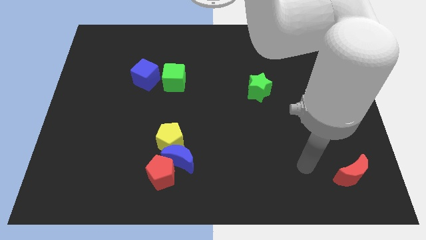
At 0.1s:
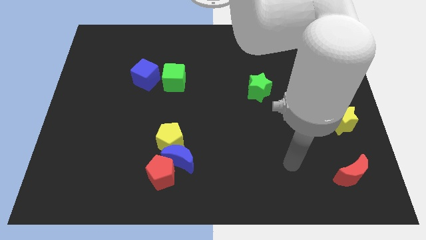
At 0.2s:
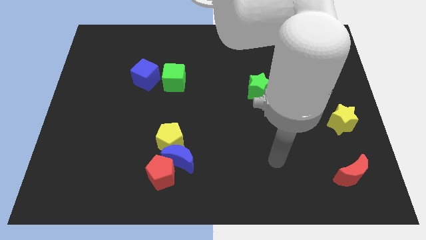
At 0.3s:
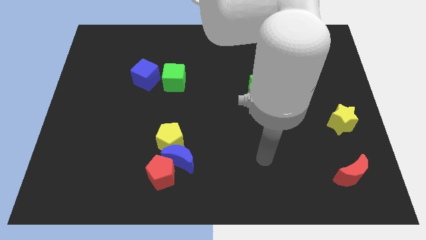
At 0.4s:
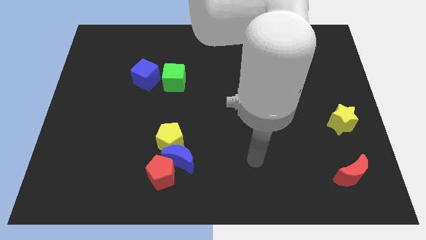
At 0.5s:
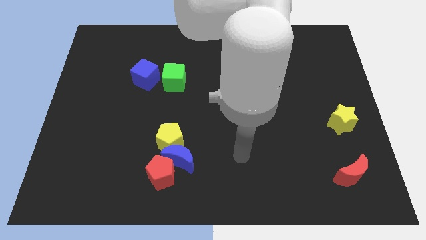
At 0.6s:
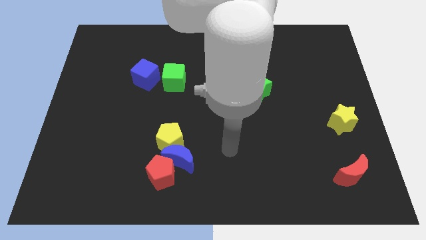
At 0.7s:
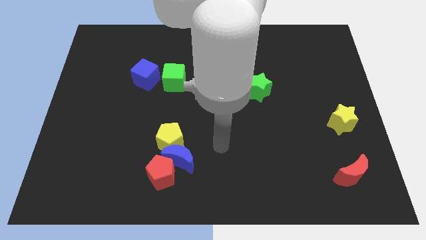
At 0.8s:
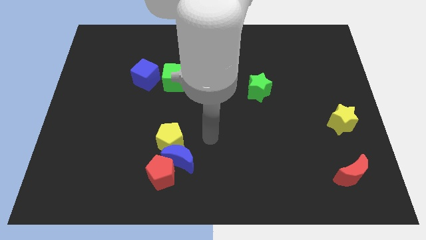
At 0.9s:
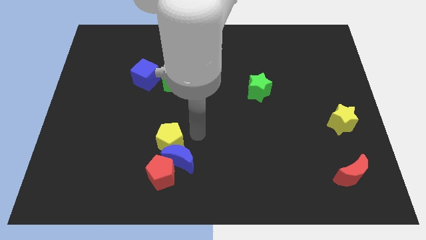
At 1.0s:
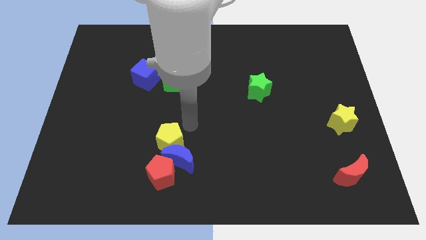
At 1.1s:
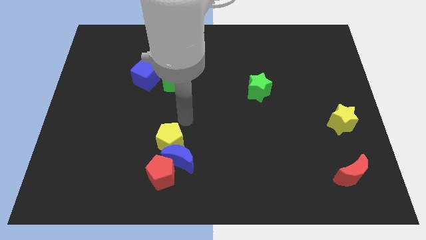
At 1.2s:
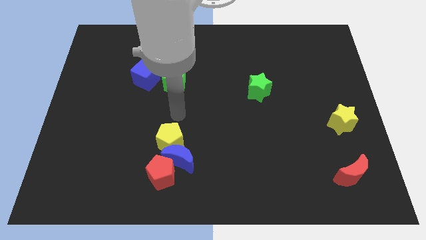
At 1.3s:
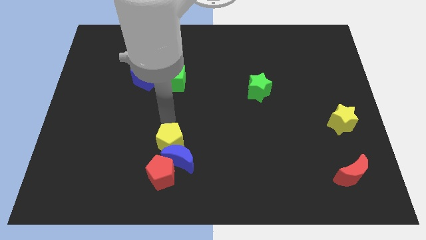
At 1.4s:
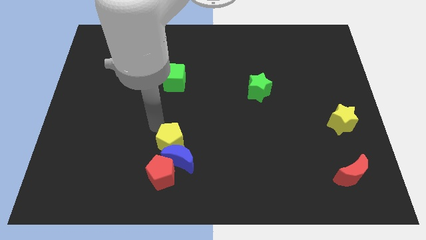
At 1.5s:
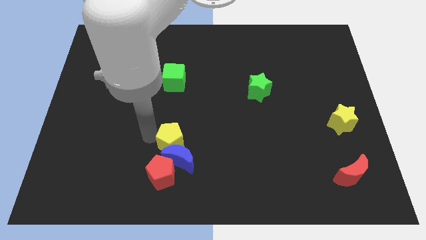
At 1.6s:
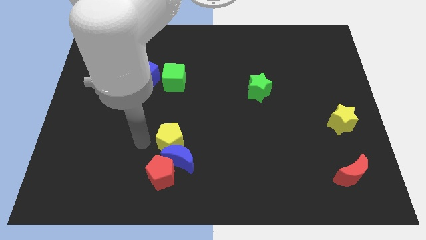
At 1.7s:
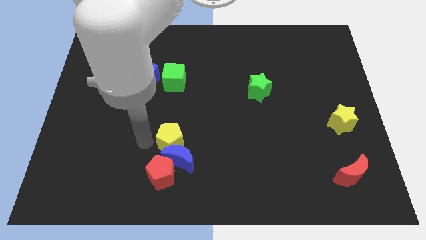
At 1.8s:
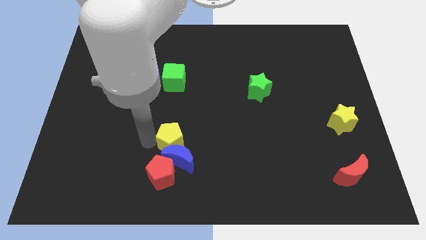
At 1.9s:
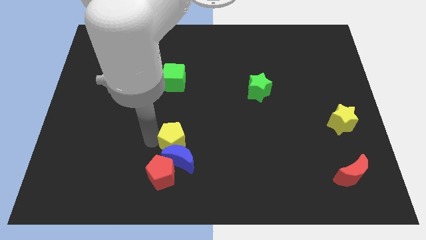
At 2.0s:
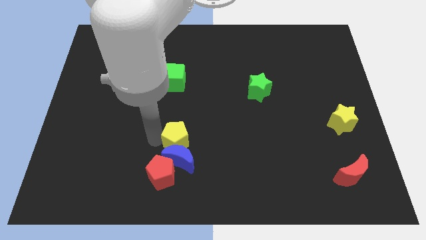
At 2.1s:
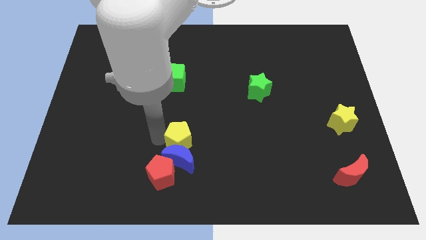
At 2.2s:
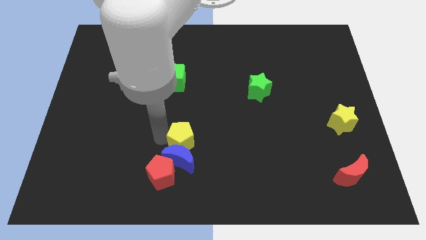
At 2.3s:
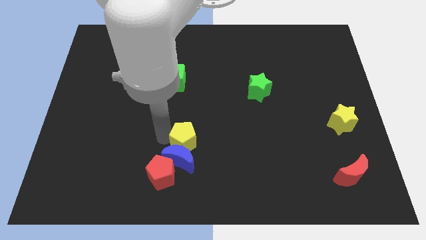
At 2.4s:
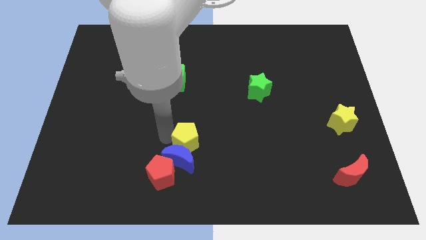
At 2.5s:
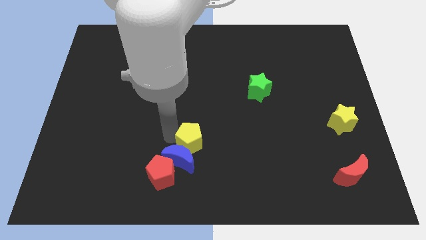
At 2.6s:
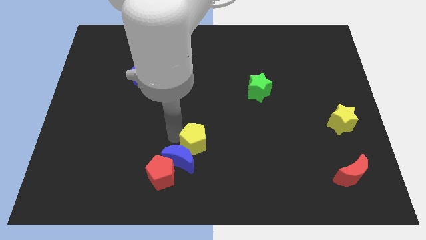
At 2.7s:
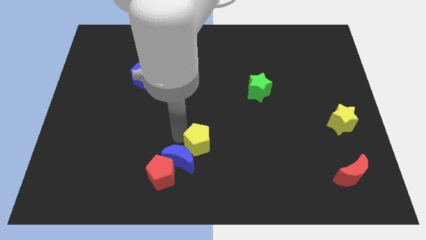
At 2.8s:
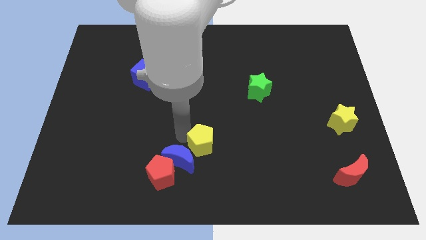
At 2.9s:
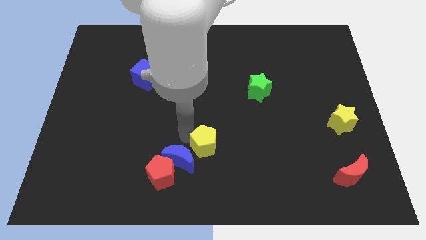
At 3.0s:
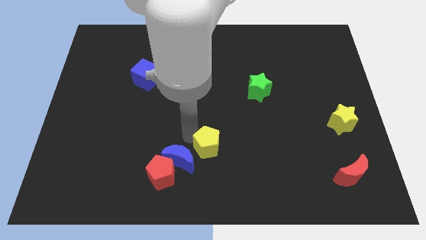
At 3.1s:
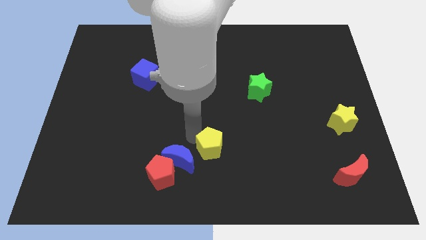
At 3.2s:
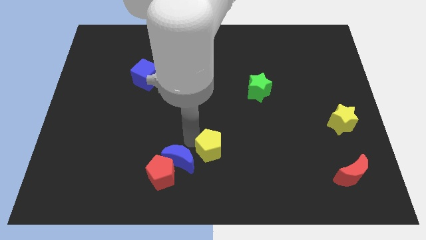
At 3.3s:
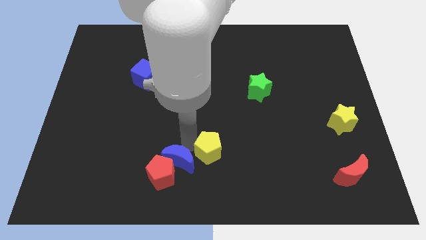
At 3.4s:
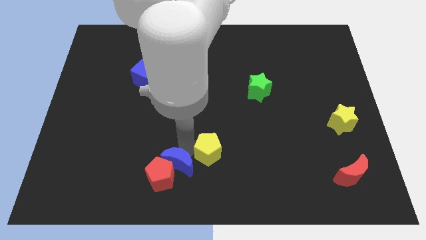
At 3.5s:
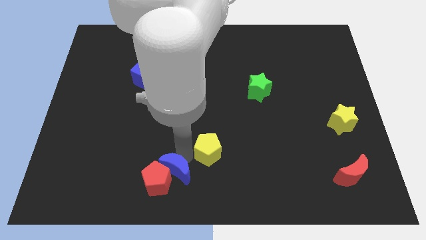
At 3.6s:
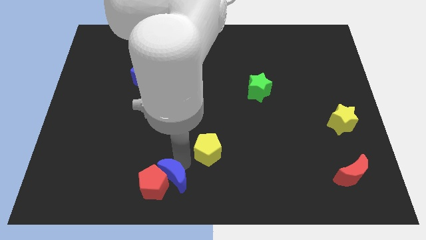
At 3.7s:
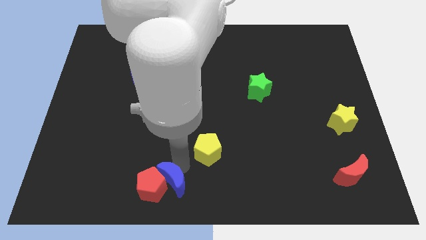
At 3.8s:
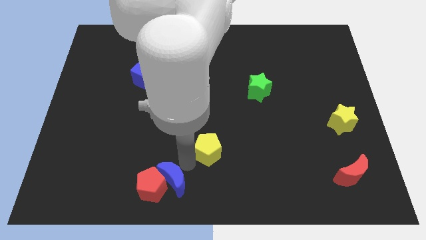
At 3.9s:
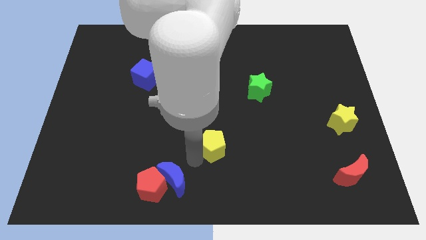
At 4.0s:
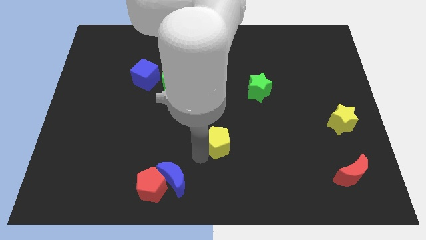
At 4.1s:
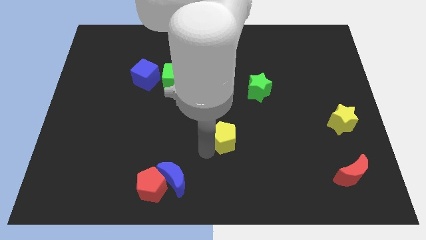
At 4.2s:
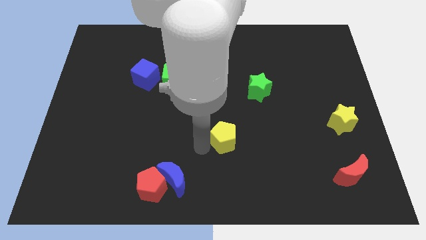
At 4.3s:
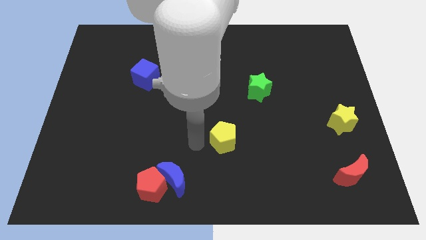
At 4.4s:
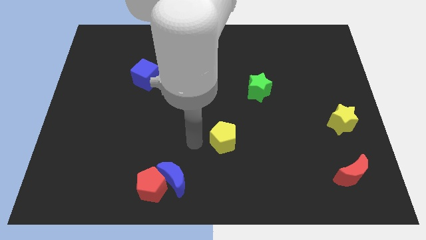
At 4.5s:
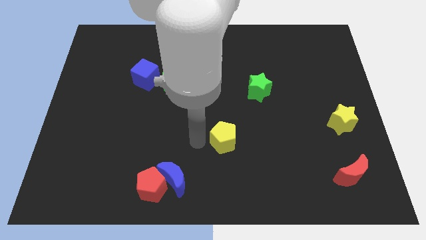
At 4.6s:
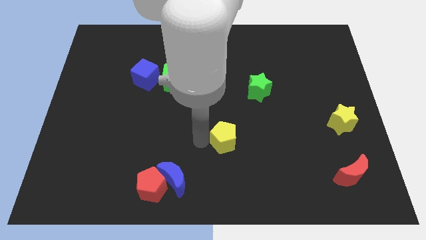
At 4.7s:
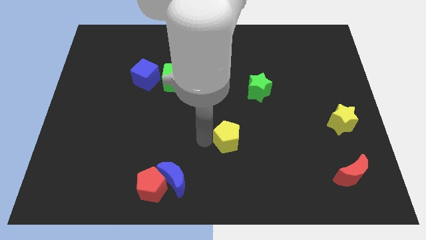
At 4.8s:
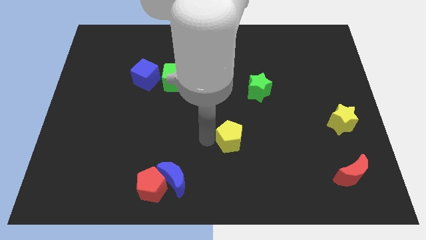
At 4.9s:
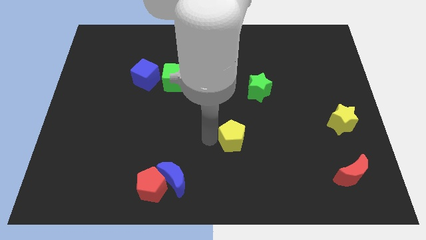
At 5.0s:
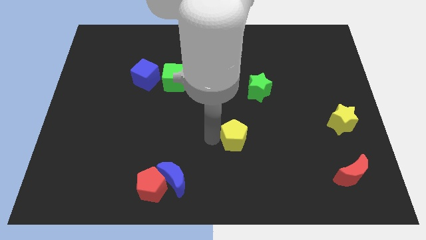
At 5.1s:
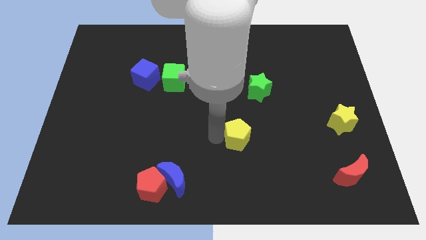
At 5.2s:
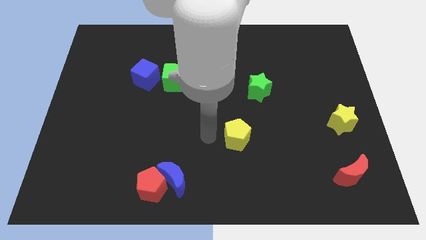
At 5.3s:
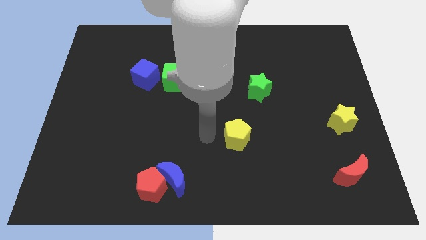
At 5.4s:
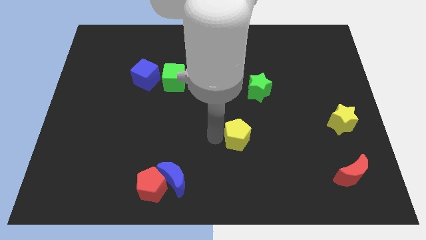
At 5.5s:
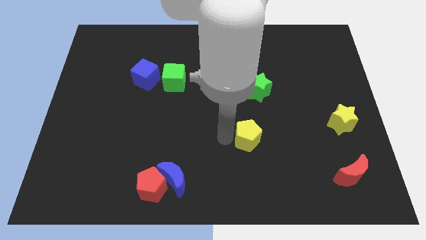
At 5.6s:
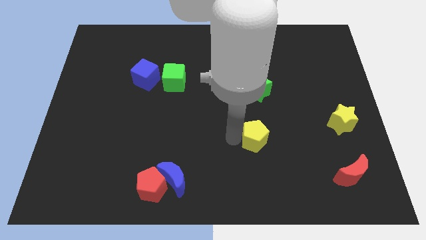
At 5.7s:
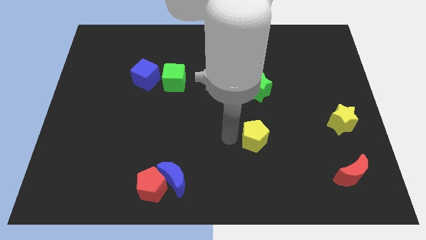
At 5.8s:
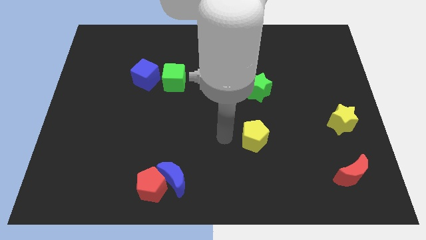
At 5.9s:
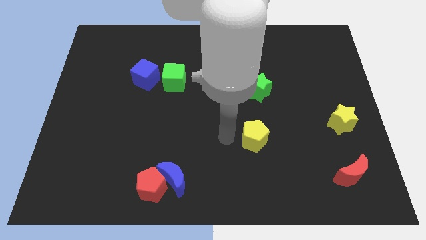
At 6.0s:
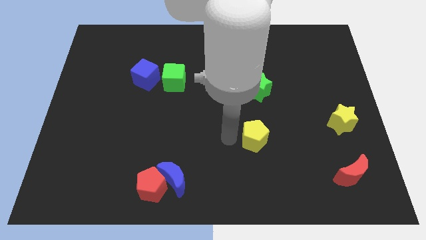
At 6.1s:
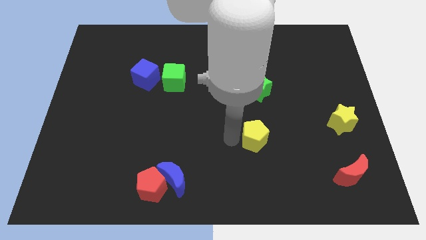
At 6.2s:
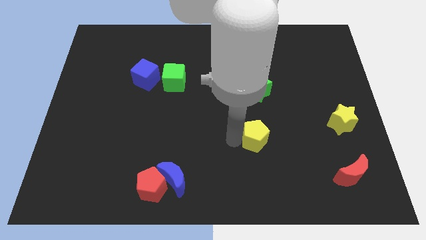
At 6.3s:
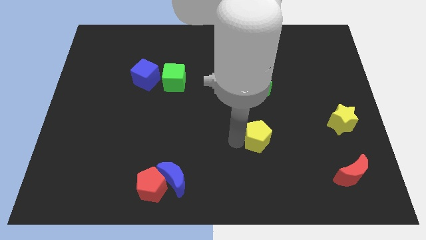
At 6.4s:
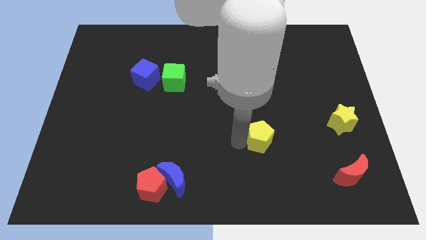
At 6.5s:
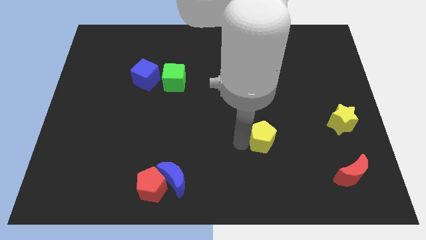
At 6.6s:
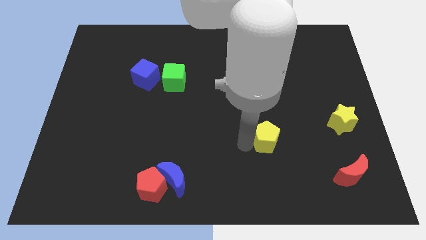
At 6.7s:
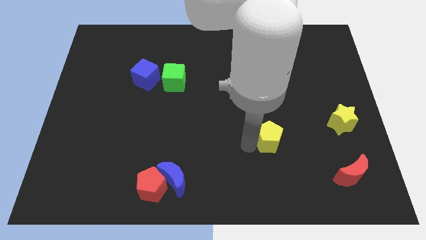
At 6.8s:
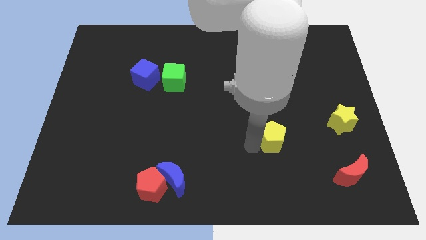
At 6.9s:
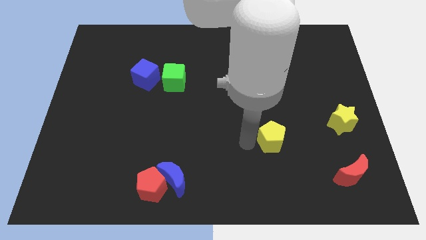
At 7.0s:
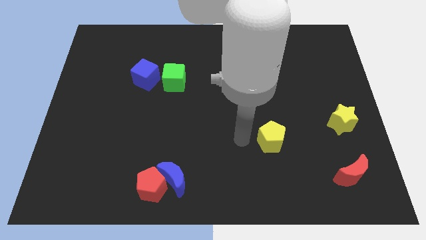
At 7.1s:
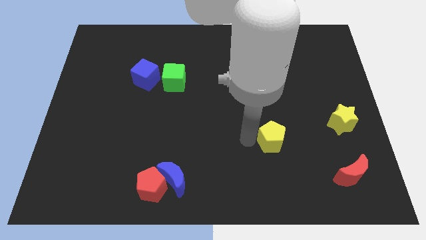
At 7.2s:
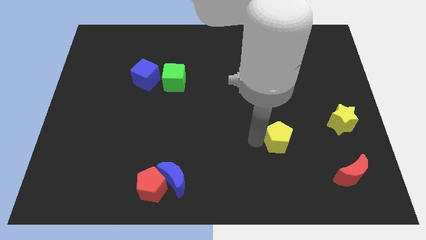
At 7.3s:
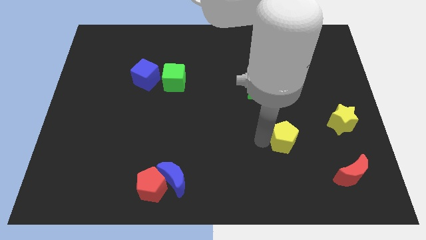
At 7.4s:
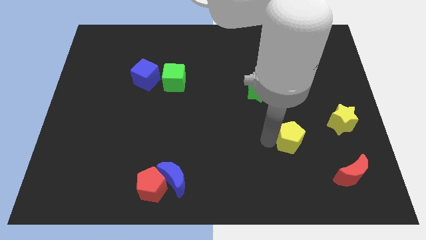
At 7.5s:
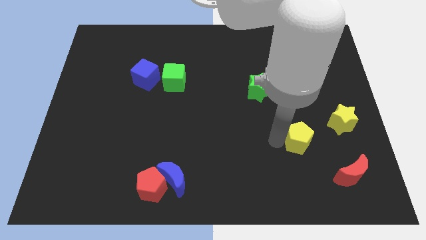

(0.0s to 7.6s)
slide the yellow pentagon to the bottom left of the yellow star

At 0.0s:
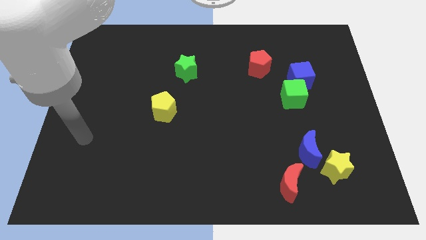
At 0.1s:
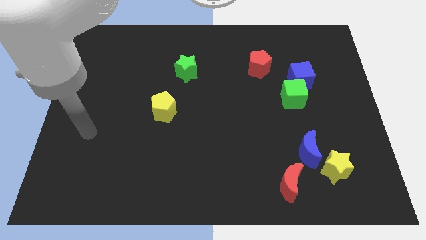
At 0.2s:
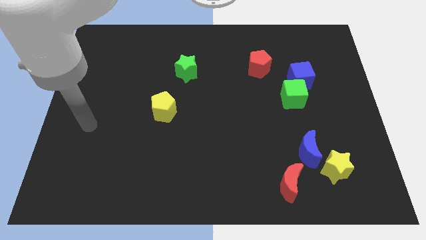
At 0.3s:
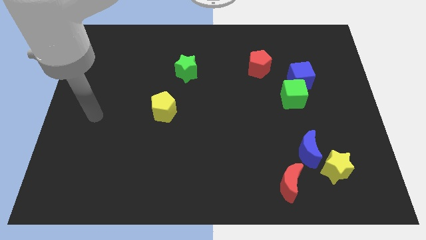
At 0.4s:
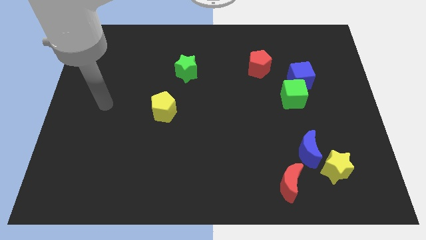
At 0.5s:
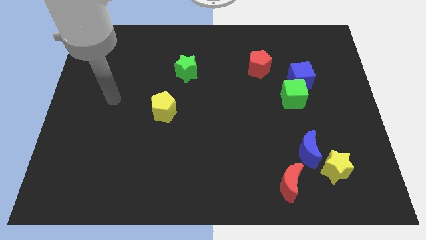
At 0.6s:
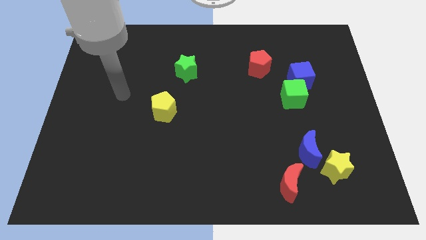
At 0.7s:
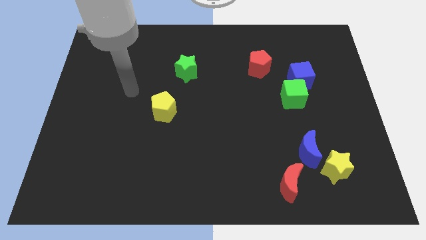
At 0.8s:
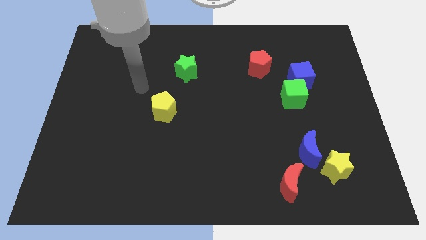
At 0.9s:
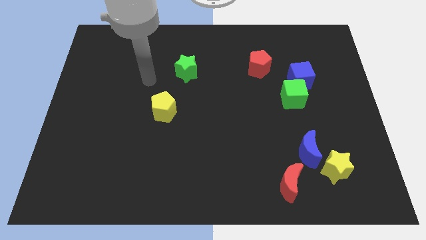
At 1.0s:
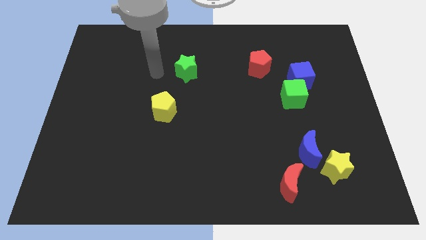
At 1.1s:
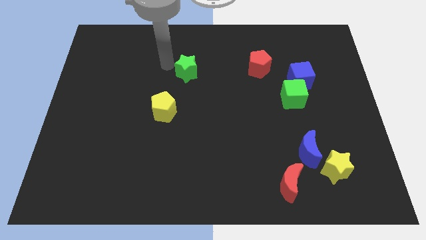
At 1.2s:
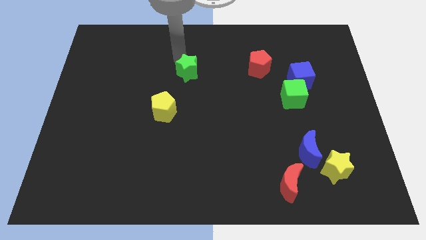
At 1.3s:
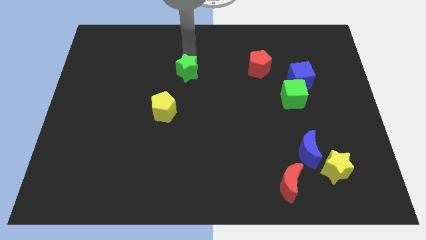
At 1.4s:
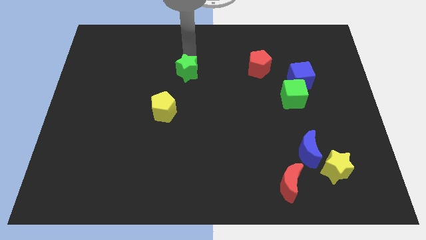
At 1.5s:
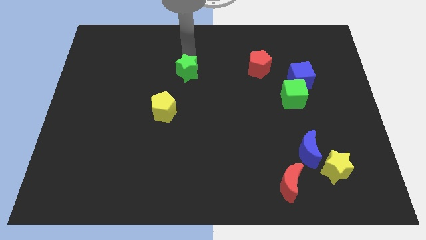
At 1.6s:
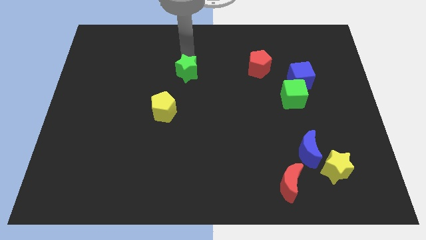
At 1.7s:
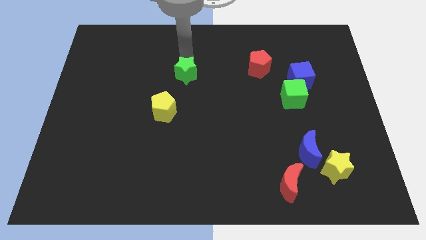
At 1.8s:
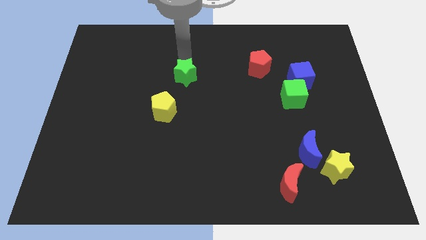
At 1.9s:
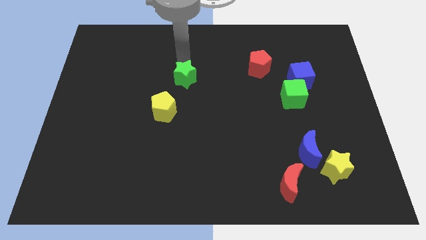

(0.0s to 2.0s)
slide the green star diagonally up and to the right of the yellow pentagon
